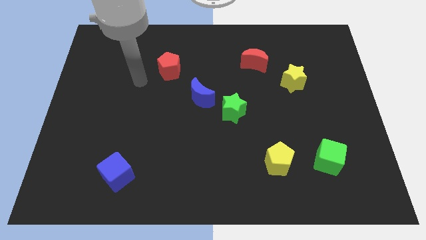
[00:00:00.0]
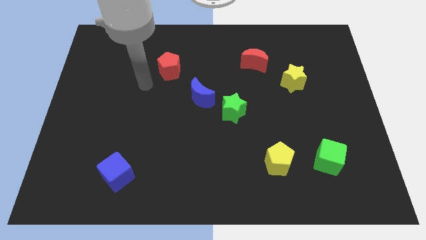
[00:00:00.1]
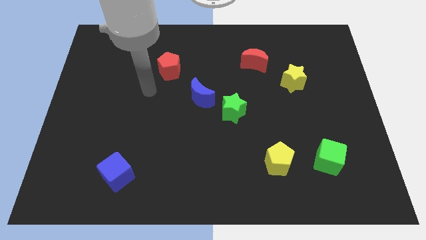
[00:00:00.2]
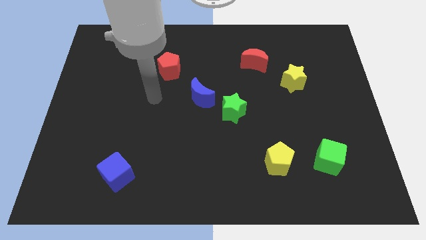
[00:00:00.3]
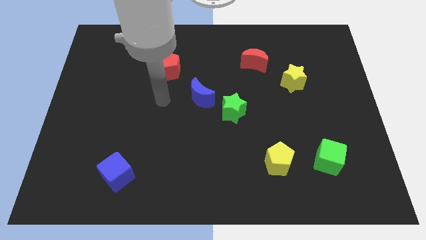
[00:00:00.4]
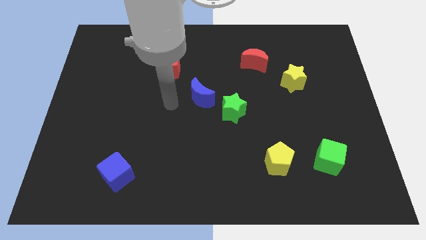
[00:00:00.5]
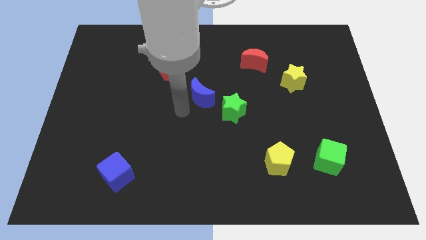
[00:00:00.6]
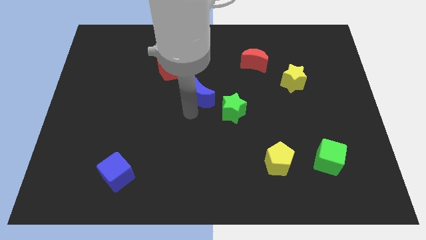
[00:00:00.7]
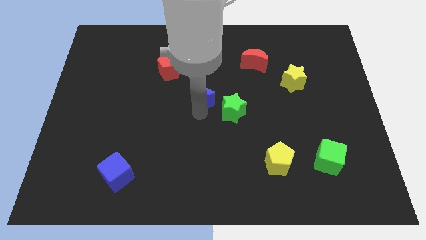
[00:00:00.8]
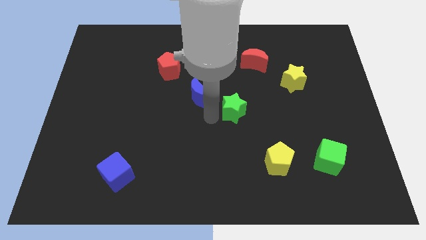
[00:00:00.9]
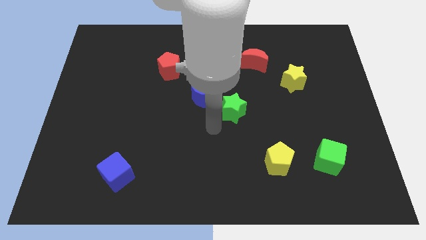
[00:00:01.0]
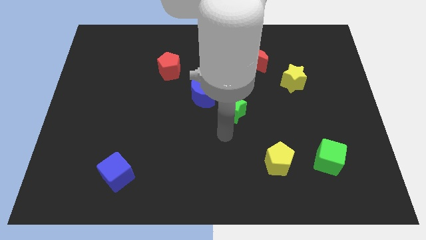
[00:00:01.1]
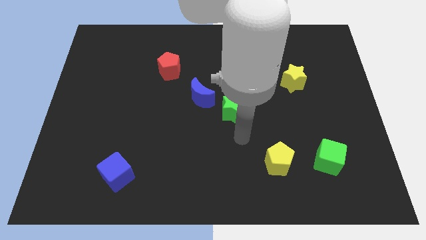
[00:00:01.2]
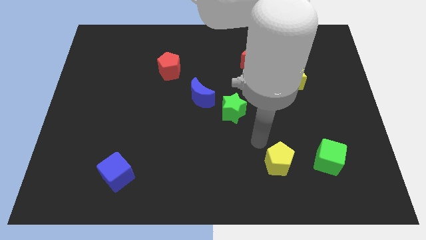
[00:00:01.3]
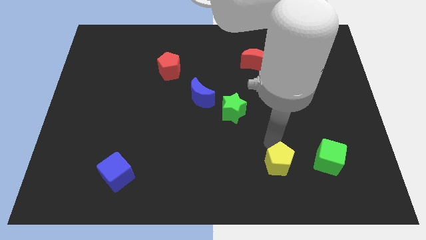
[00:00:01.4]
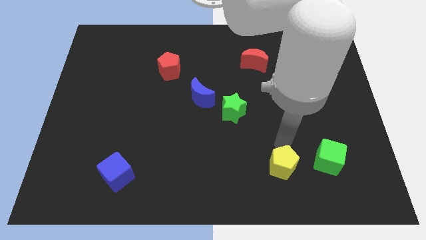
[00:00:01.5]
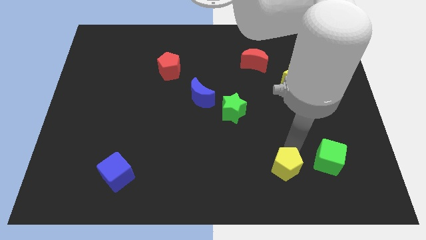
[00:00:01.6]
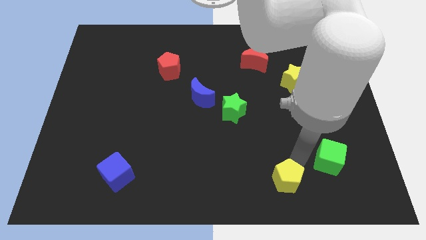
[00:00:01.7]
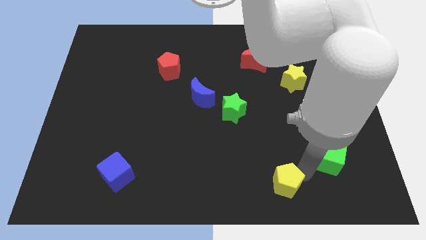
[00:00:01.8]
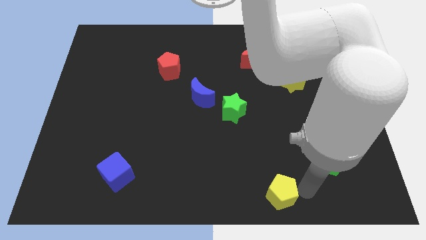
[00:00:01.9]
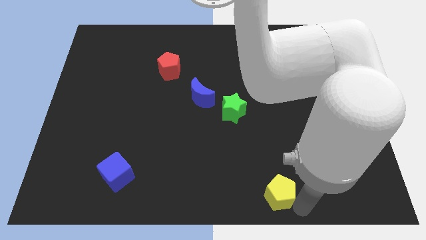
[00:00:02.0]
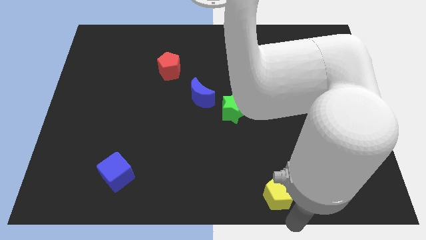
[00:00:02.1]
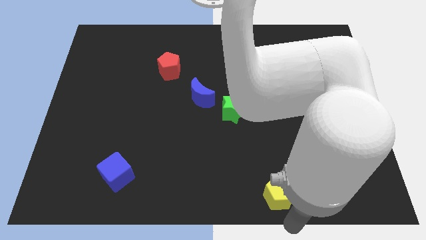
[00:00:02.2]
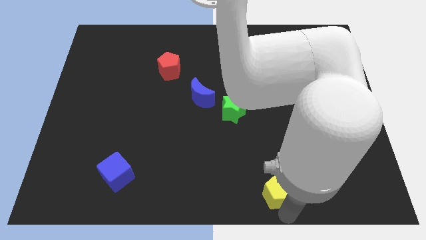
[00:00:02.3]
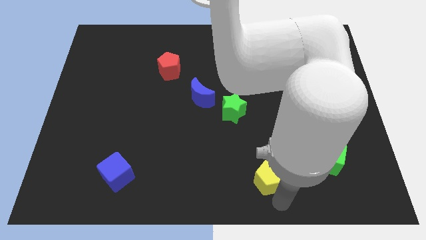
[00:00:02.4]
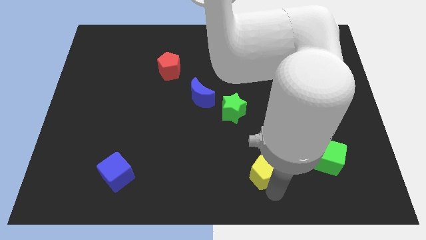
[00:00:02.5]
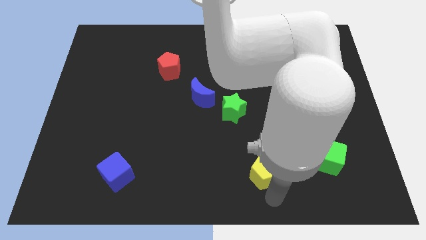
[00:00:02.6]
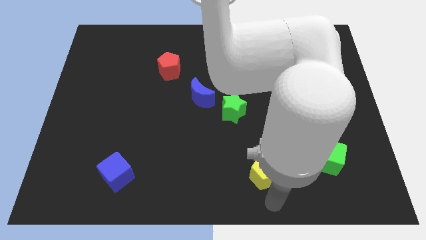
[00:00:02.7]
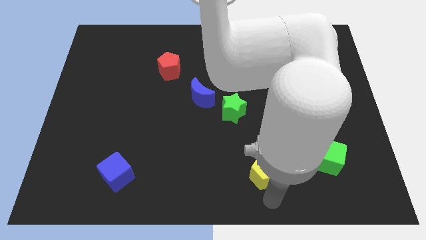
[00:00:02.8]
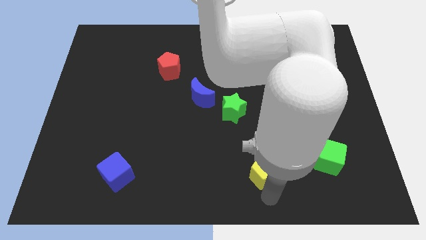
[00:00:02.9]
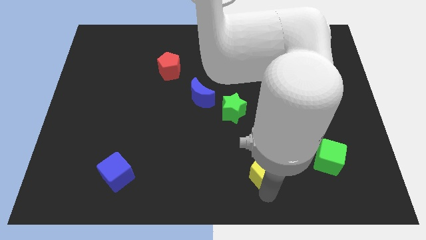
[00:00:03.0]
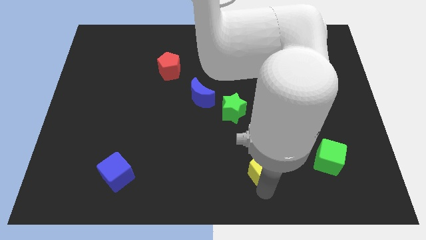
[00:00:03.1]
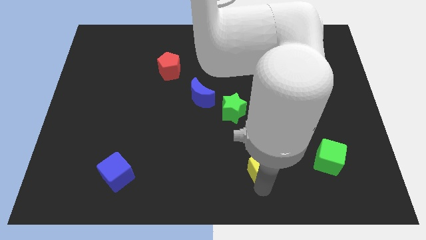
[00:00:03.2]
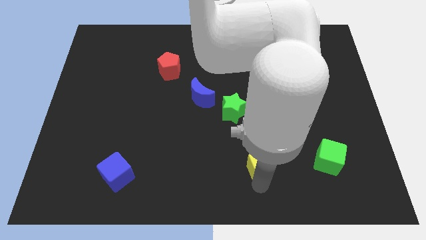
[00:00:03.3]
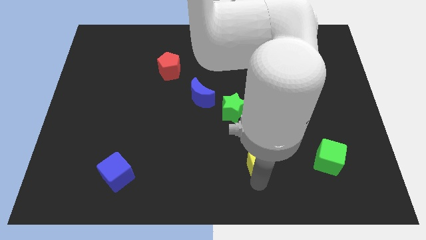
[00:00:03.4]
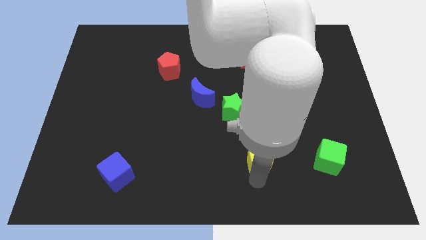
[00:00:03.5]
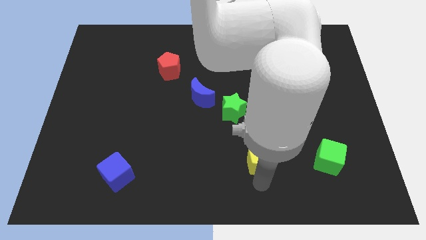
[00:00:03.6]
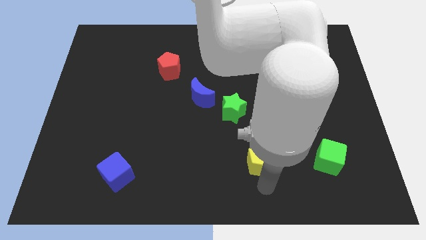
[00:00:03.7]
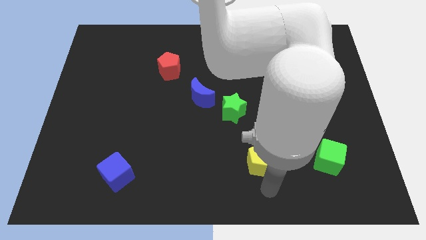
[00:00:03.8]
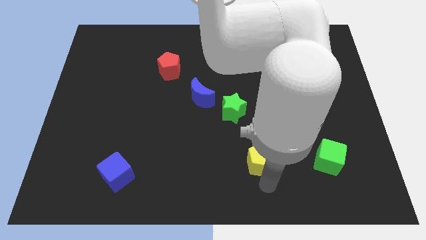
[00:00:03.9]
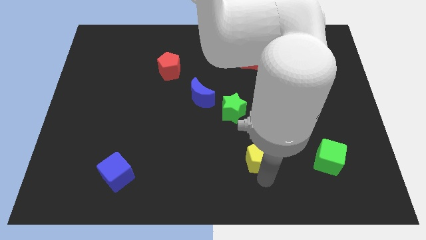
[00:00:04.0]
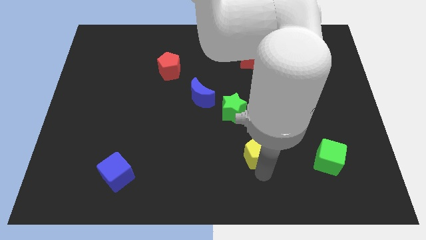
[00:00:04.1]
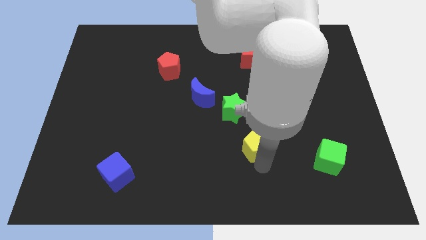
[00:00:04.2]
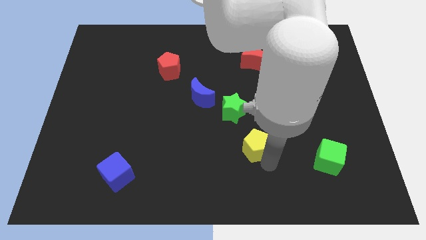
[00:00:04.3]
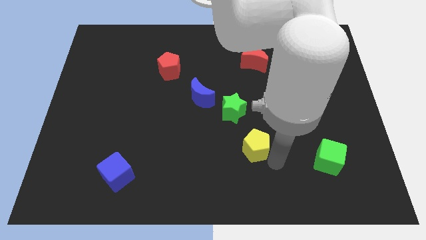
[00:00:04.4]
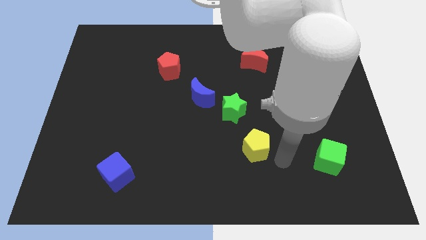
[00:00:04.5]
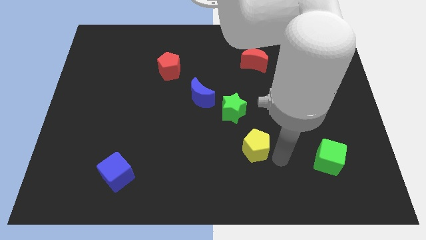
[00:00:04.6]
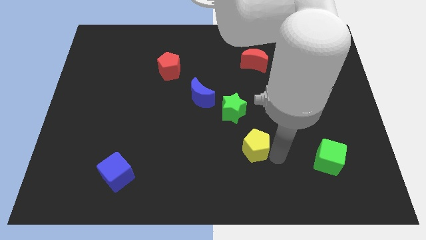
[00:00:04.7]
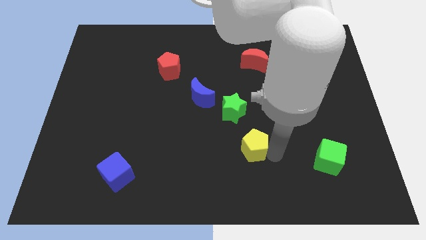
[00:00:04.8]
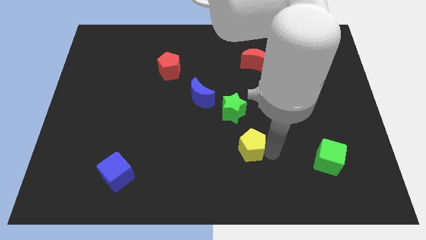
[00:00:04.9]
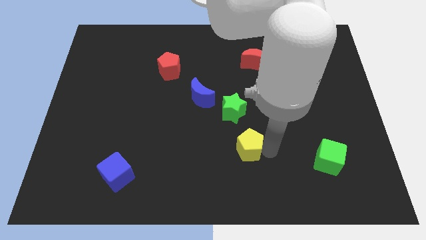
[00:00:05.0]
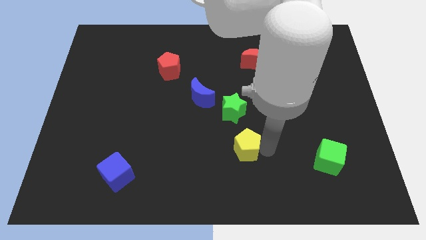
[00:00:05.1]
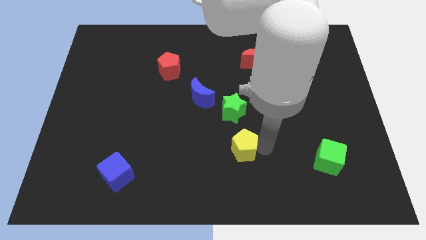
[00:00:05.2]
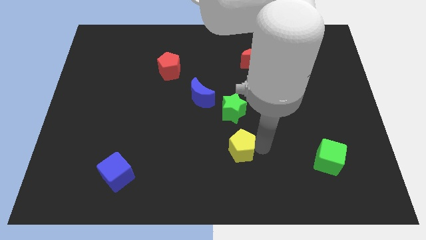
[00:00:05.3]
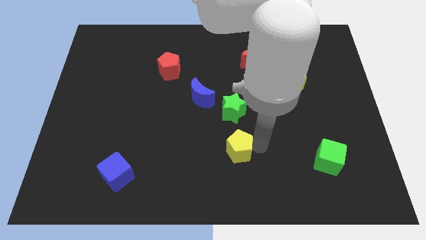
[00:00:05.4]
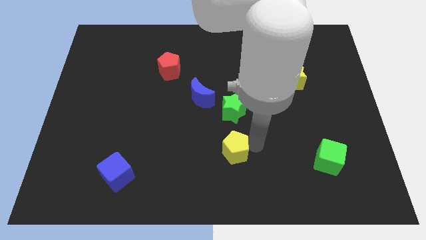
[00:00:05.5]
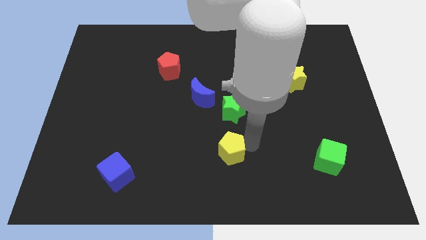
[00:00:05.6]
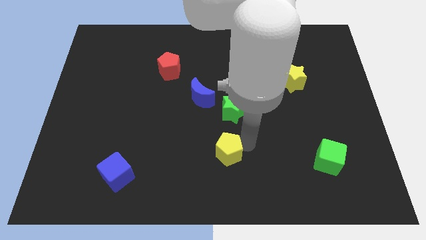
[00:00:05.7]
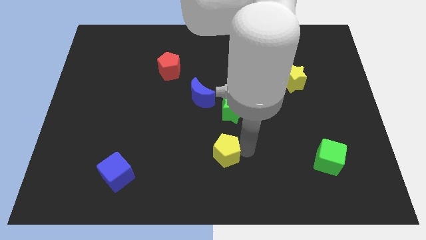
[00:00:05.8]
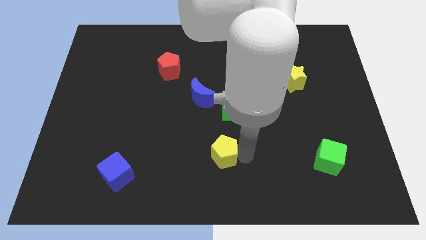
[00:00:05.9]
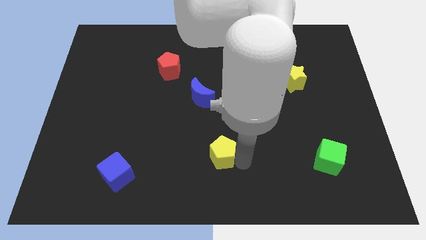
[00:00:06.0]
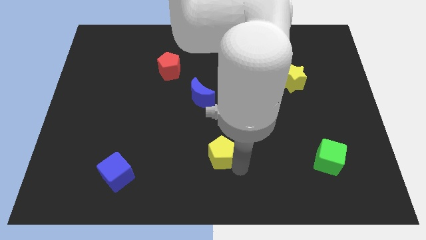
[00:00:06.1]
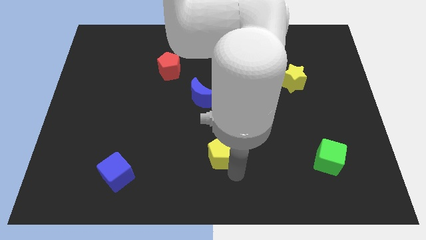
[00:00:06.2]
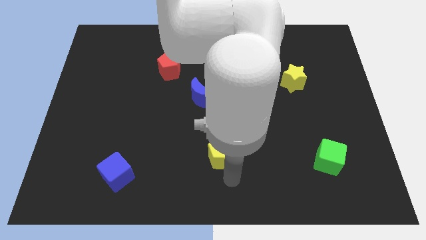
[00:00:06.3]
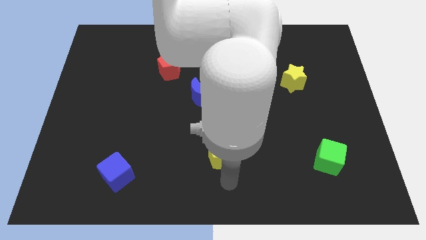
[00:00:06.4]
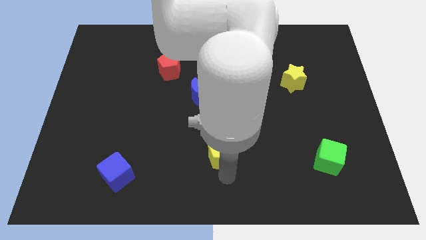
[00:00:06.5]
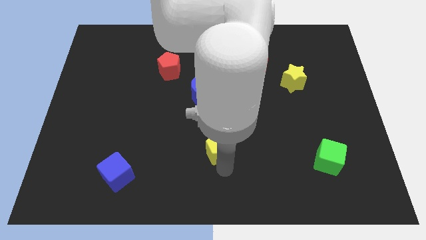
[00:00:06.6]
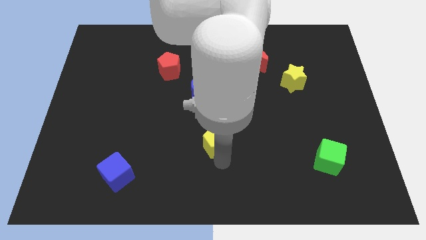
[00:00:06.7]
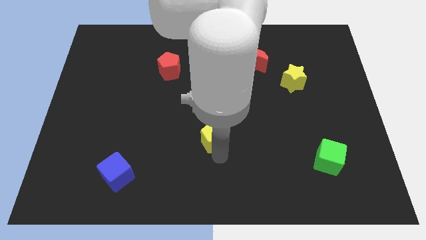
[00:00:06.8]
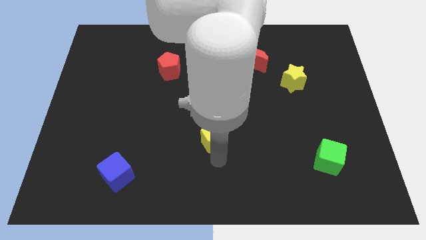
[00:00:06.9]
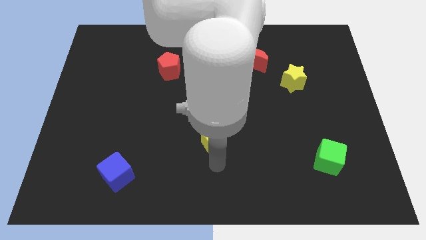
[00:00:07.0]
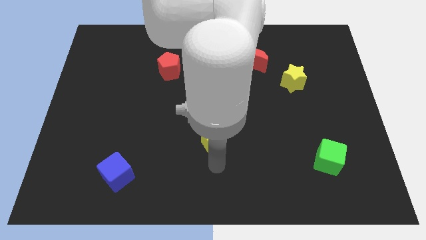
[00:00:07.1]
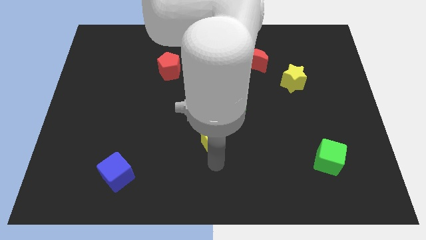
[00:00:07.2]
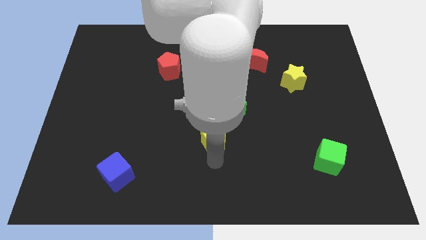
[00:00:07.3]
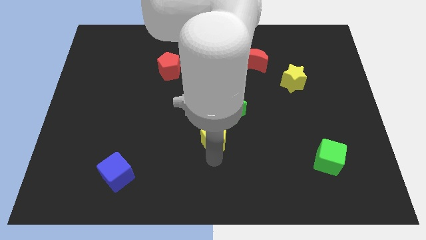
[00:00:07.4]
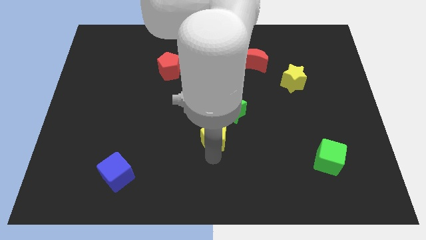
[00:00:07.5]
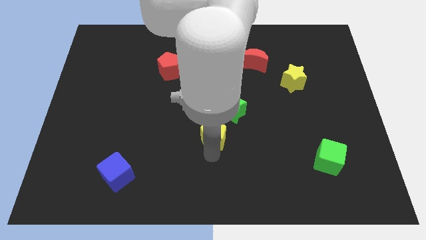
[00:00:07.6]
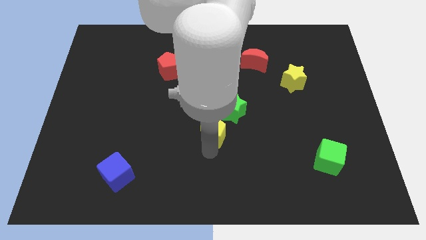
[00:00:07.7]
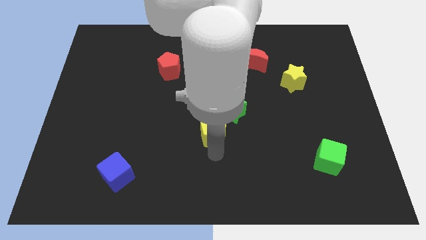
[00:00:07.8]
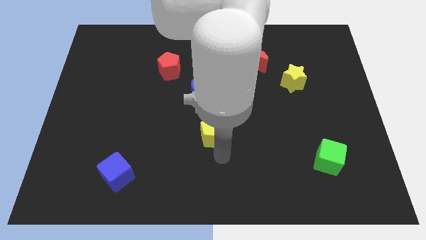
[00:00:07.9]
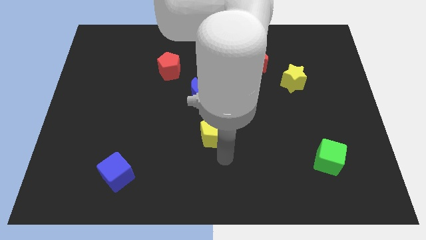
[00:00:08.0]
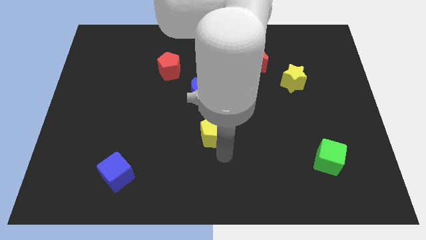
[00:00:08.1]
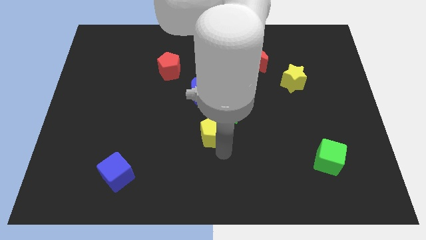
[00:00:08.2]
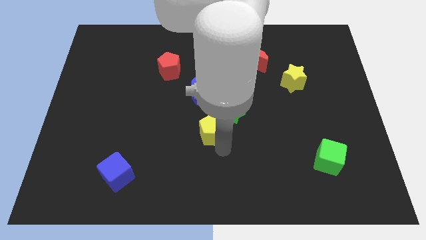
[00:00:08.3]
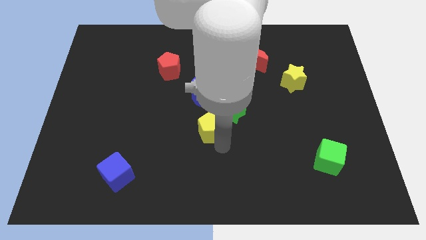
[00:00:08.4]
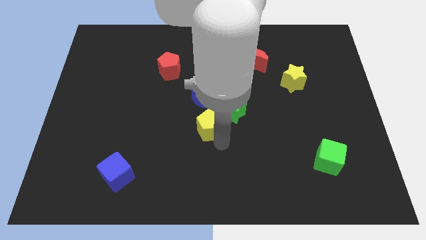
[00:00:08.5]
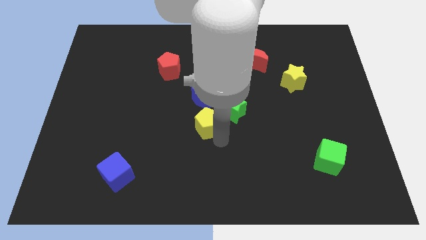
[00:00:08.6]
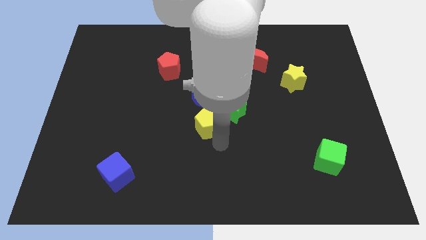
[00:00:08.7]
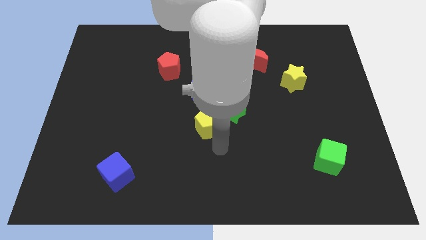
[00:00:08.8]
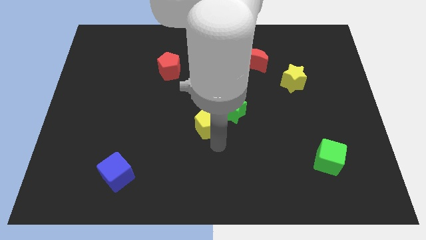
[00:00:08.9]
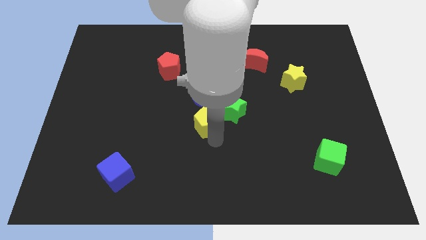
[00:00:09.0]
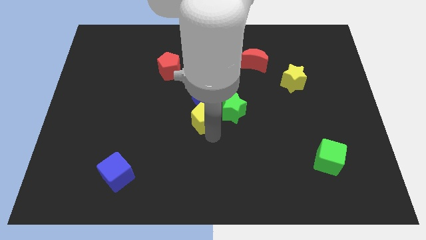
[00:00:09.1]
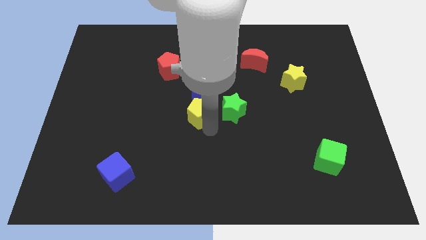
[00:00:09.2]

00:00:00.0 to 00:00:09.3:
slide the yellow pentagon up and then to the left
